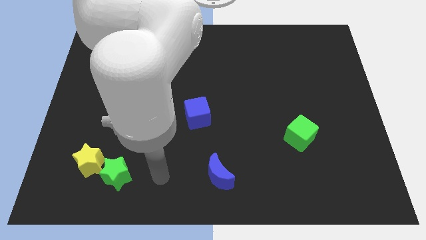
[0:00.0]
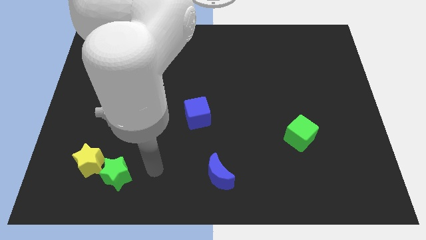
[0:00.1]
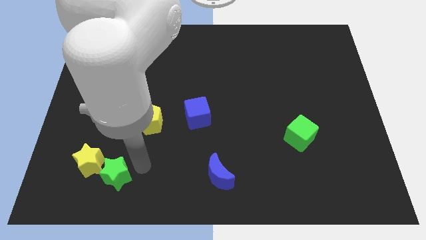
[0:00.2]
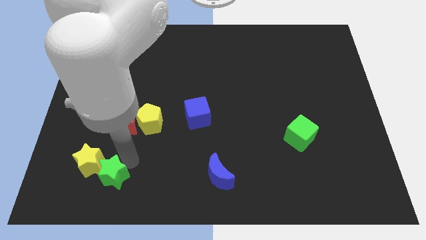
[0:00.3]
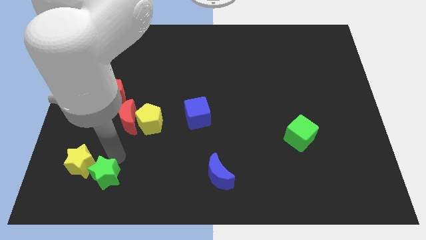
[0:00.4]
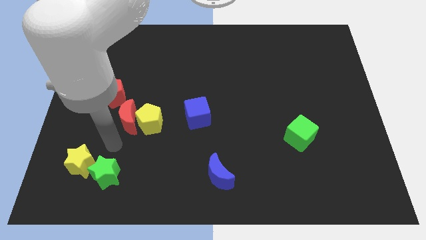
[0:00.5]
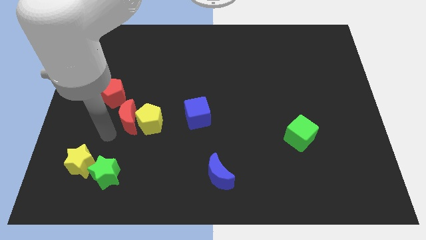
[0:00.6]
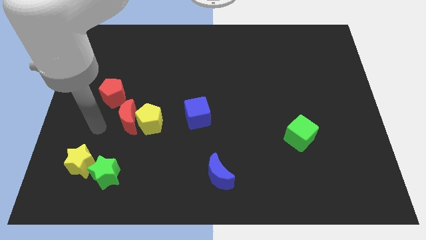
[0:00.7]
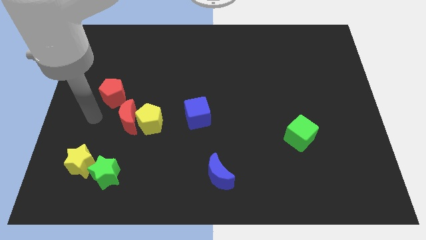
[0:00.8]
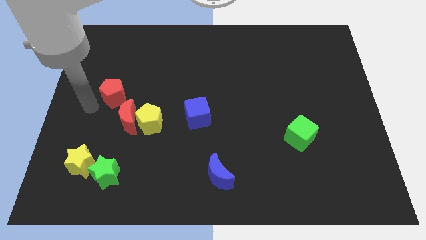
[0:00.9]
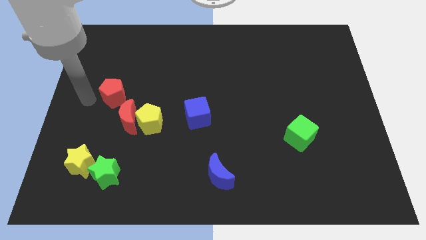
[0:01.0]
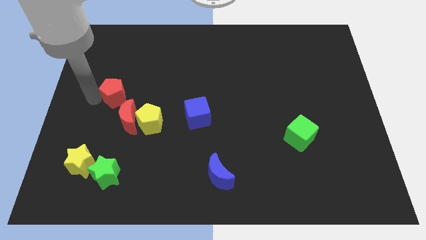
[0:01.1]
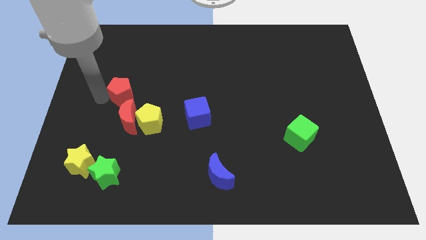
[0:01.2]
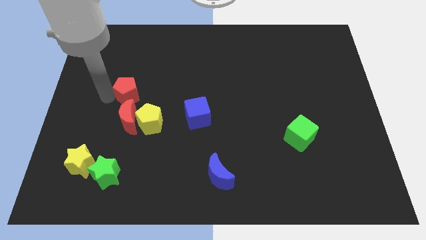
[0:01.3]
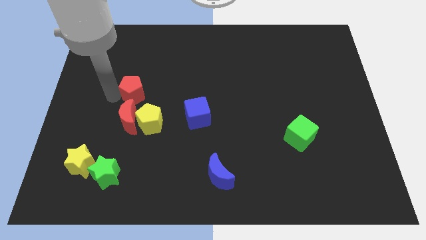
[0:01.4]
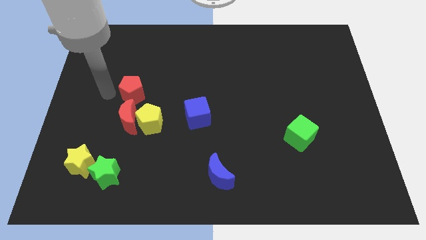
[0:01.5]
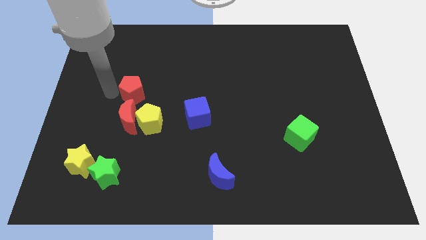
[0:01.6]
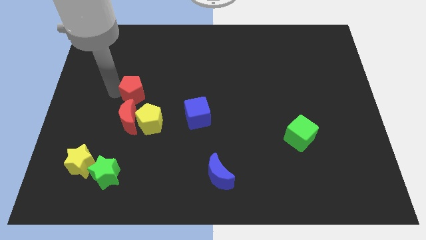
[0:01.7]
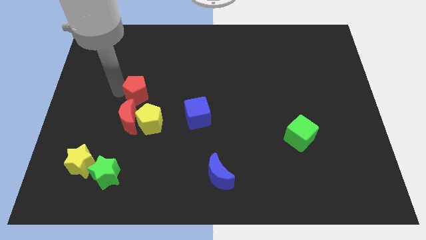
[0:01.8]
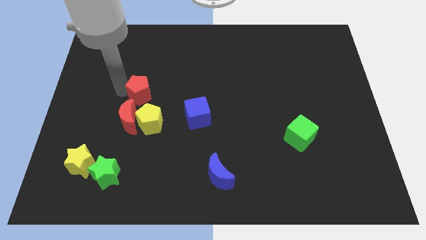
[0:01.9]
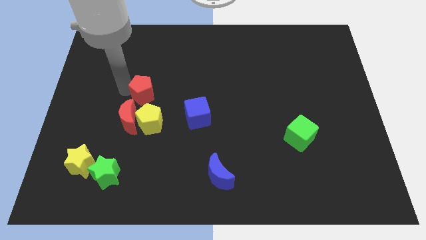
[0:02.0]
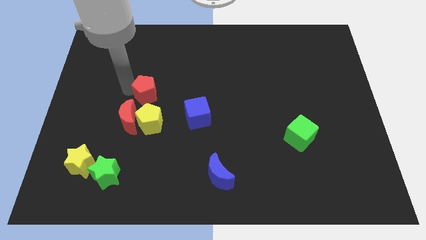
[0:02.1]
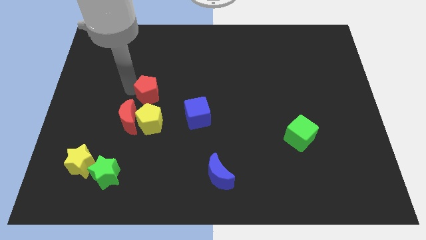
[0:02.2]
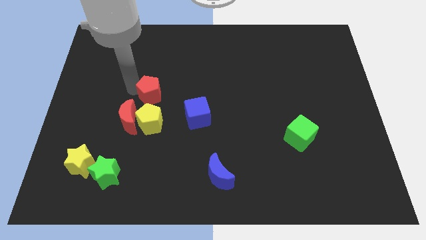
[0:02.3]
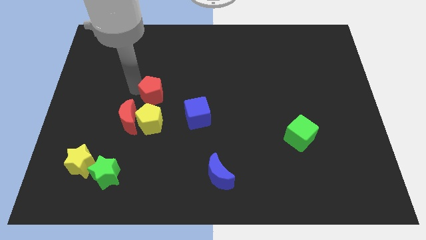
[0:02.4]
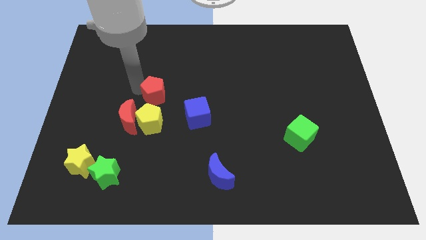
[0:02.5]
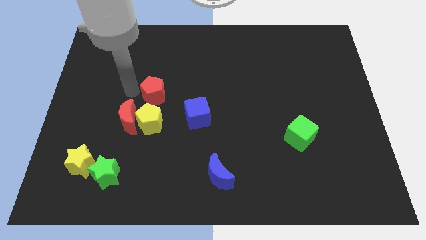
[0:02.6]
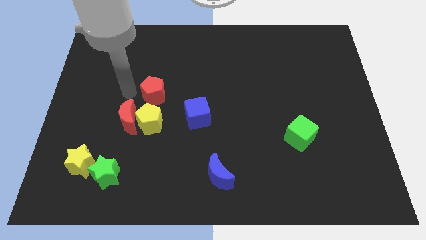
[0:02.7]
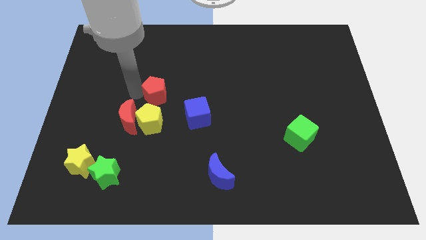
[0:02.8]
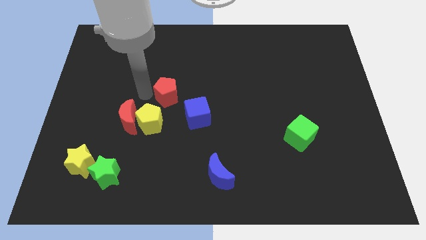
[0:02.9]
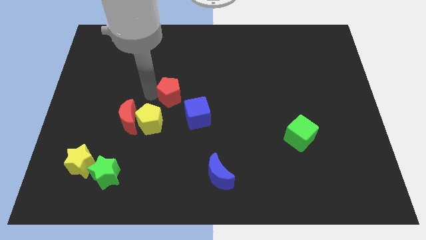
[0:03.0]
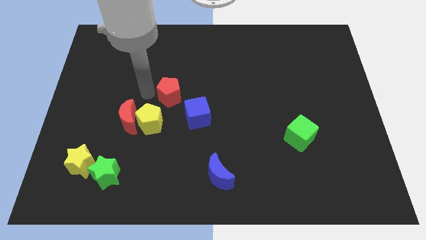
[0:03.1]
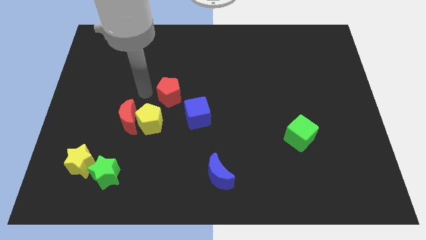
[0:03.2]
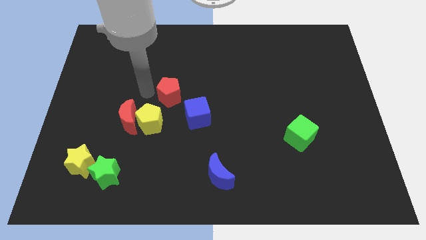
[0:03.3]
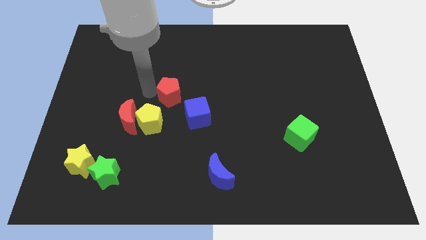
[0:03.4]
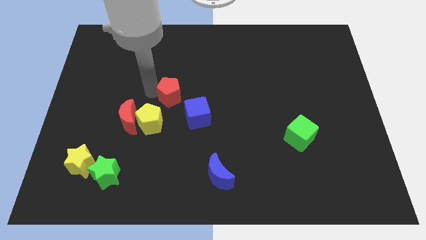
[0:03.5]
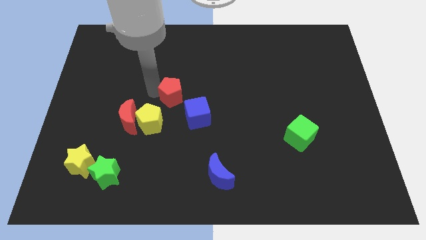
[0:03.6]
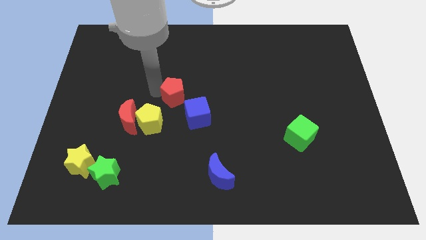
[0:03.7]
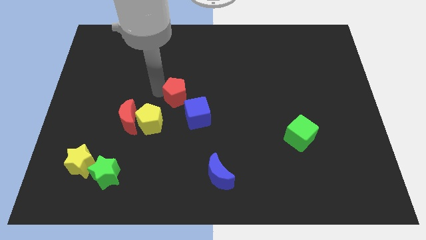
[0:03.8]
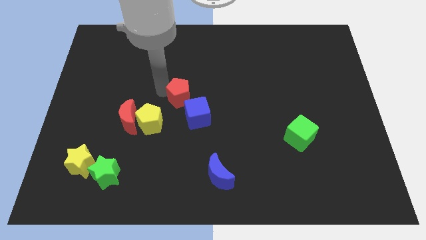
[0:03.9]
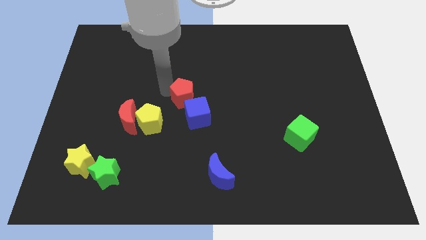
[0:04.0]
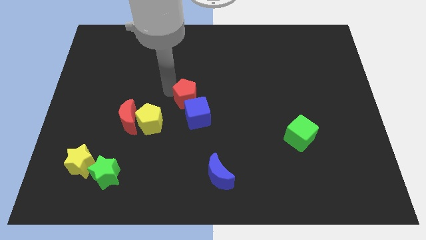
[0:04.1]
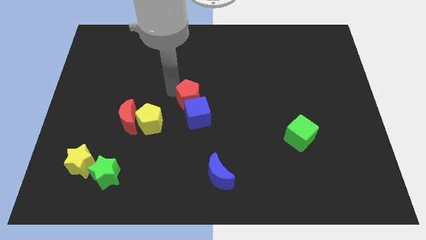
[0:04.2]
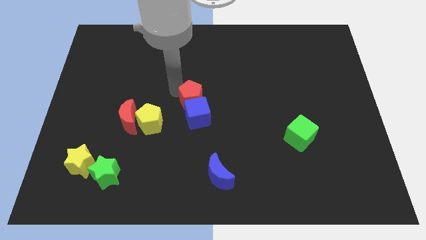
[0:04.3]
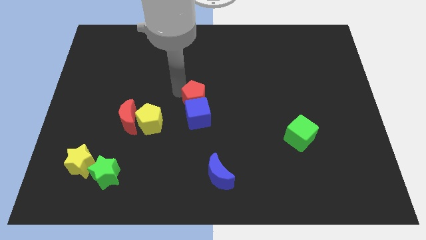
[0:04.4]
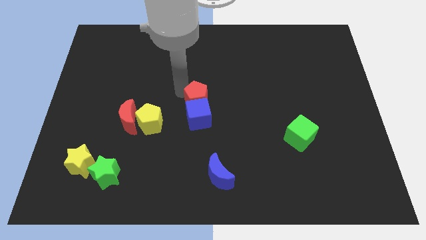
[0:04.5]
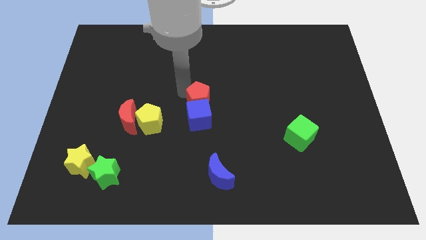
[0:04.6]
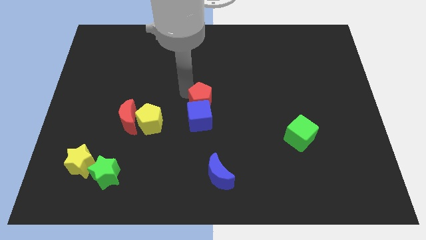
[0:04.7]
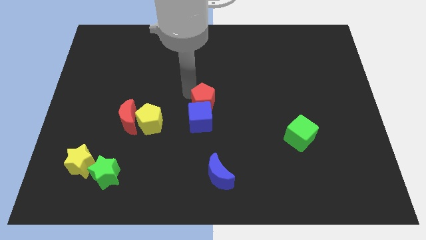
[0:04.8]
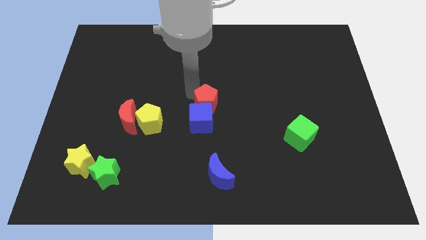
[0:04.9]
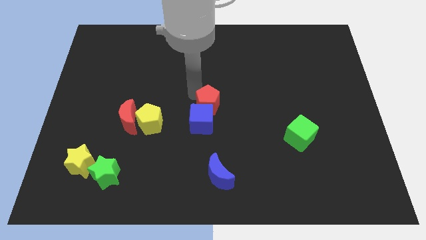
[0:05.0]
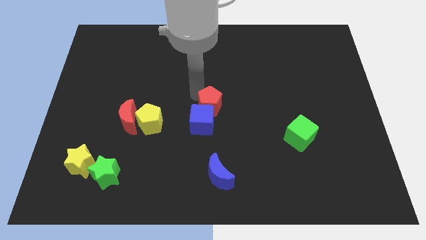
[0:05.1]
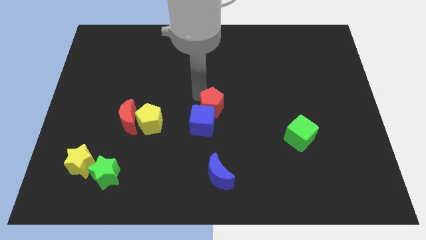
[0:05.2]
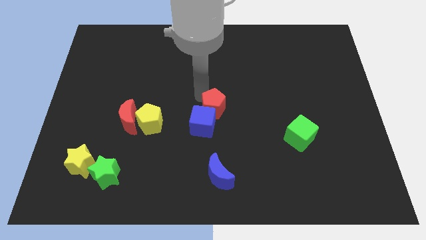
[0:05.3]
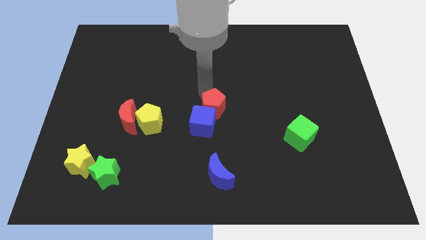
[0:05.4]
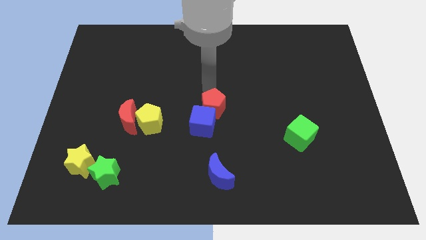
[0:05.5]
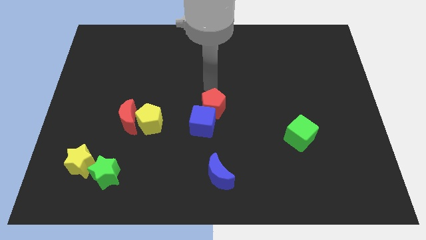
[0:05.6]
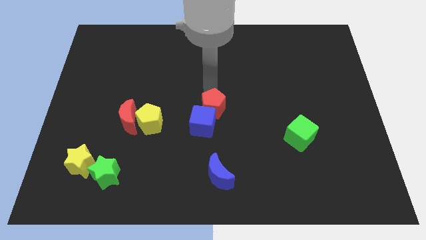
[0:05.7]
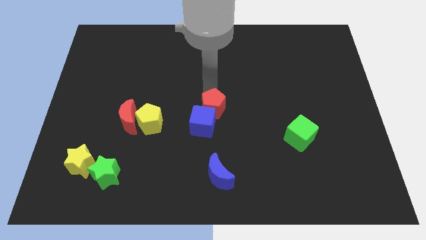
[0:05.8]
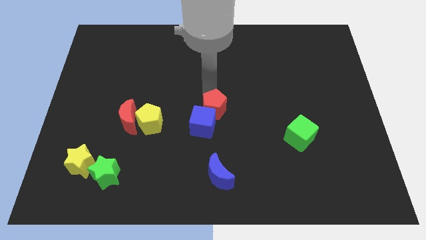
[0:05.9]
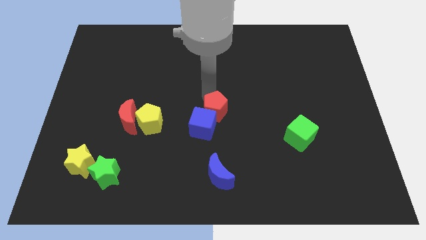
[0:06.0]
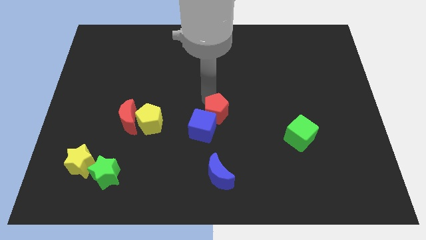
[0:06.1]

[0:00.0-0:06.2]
push the red pentagon to the top side of the blue moon
